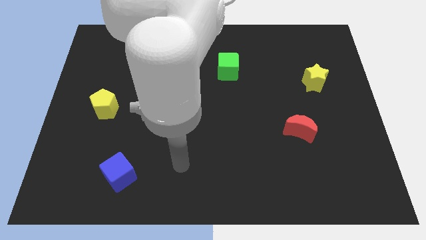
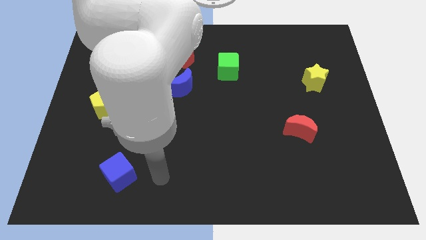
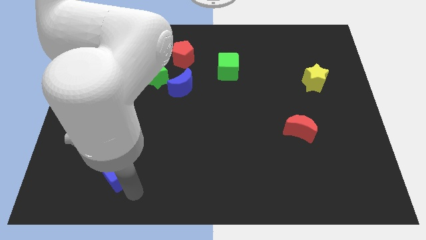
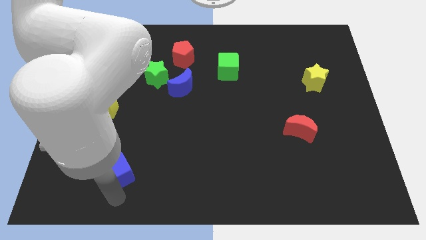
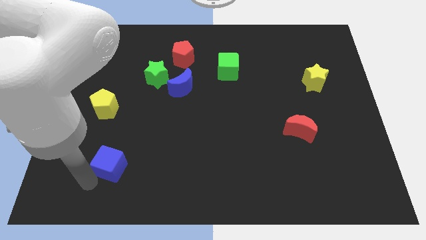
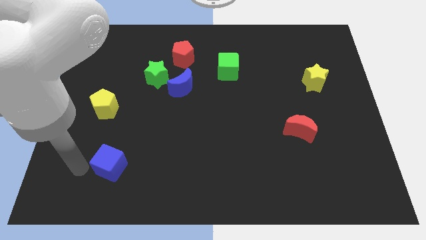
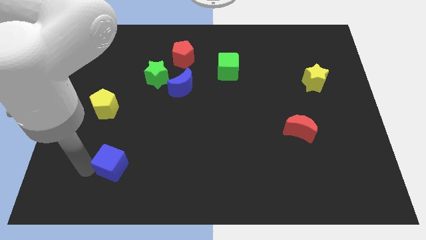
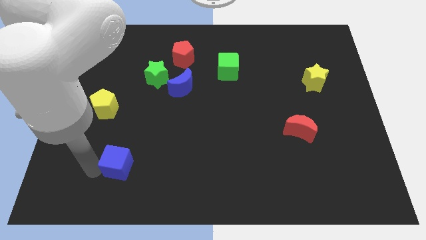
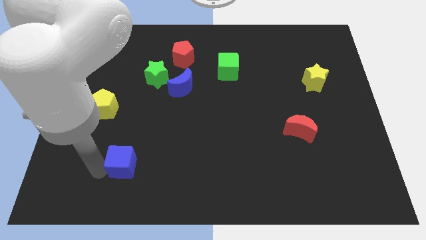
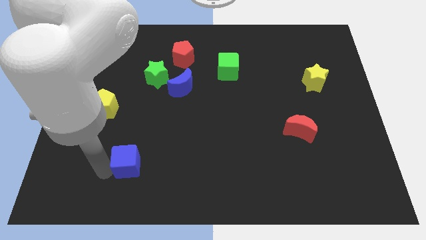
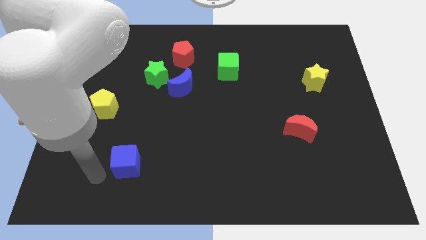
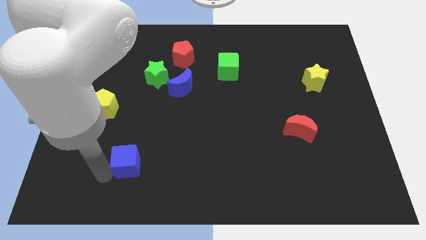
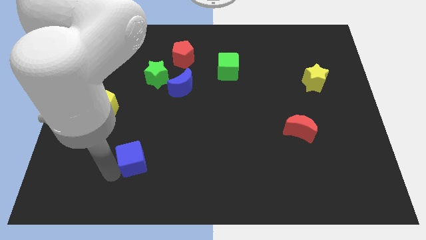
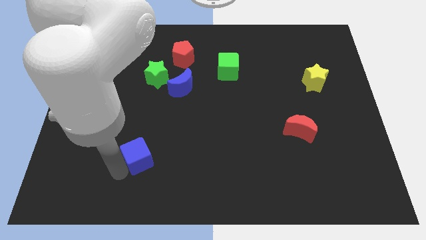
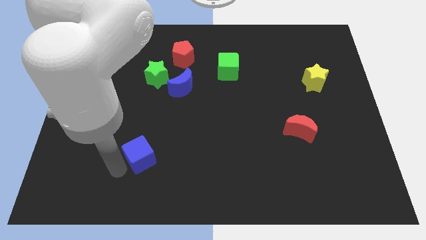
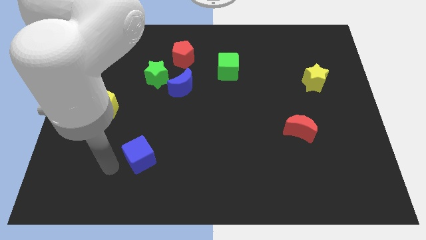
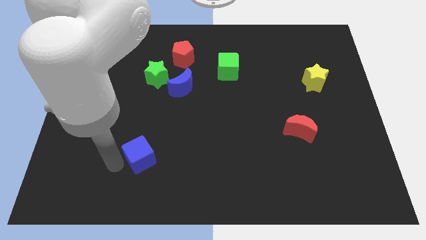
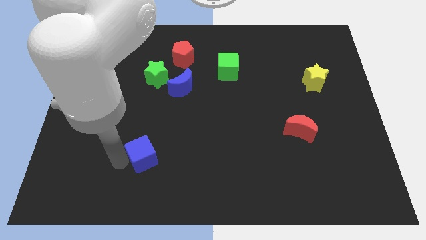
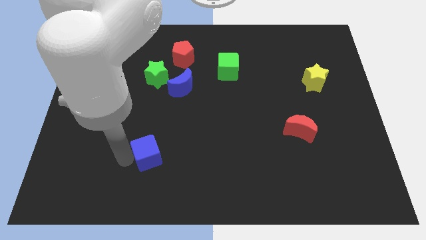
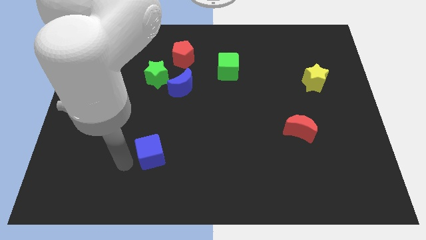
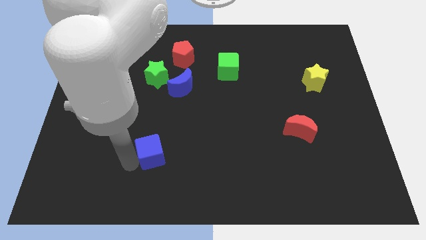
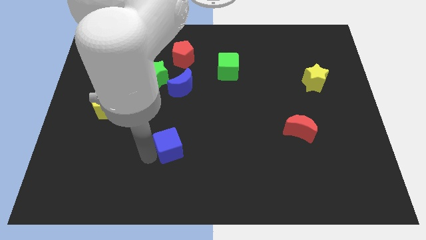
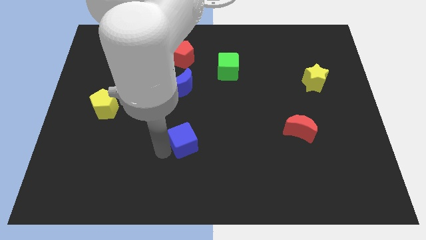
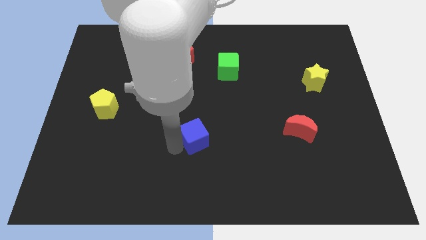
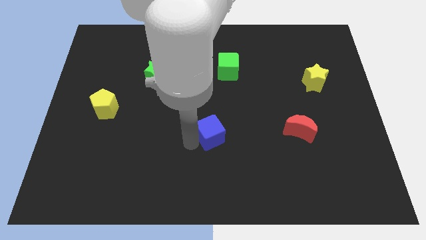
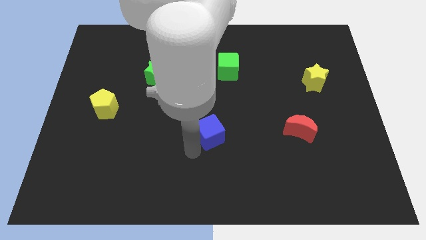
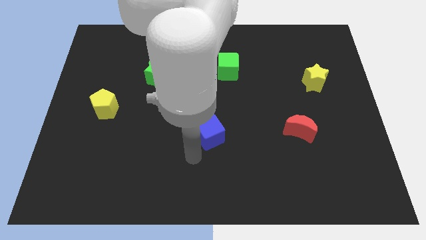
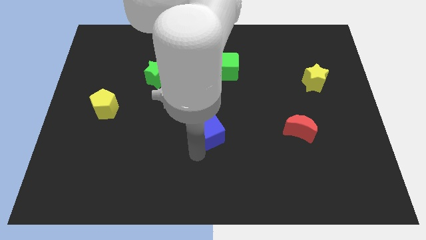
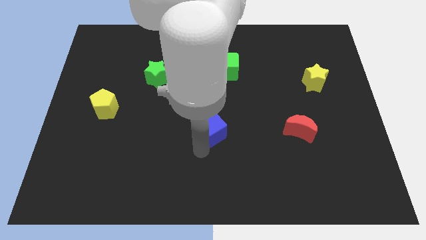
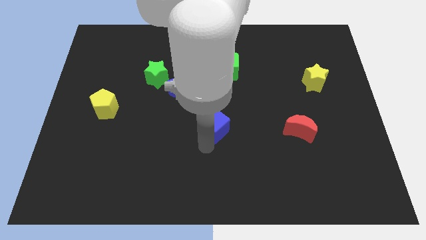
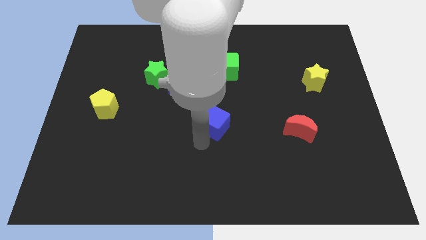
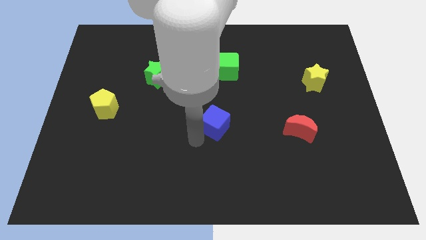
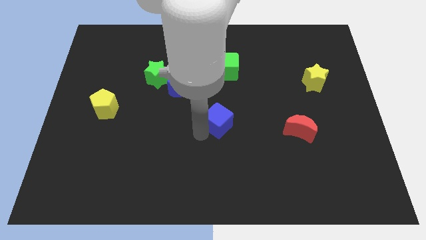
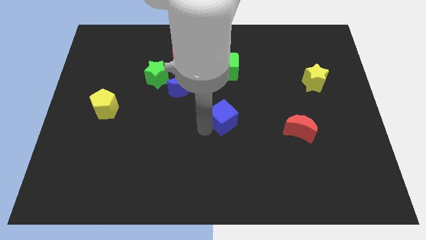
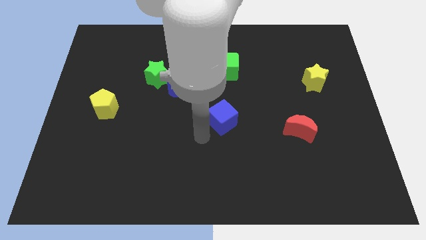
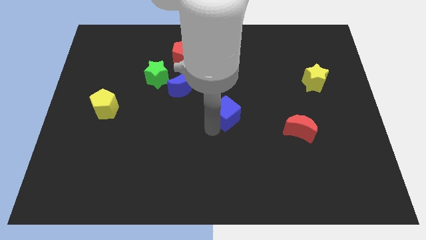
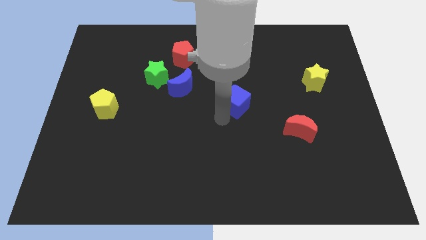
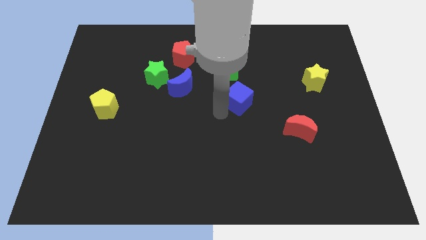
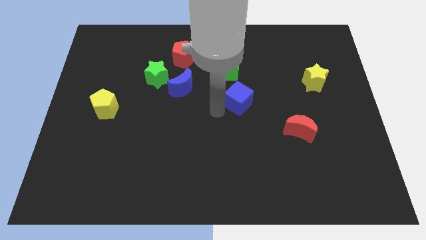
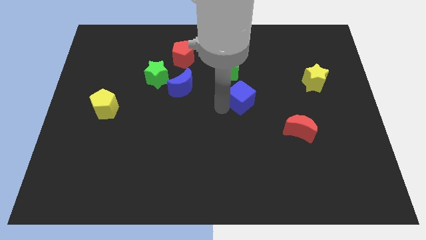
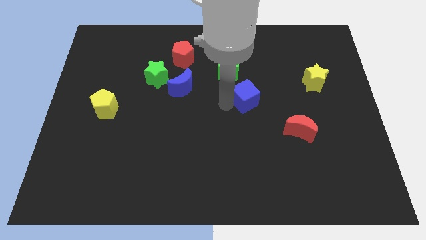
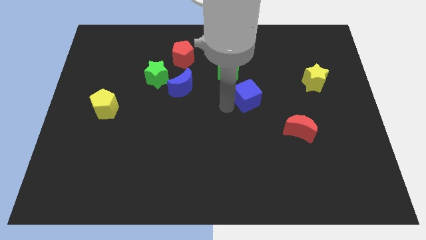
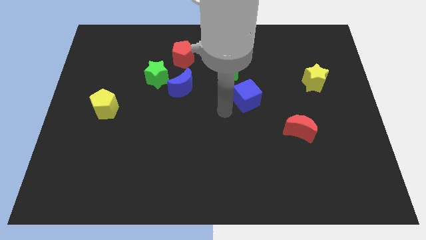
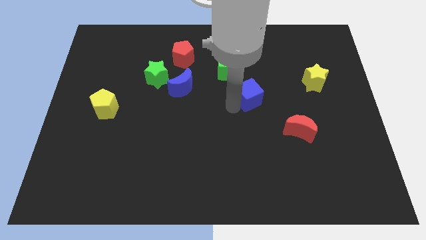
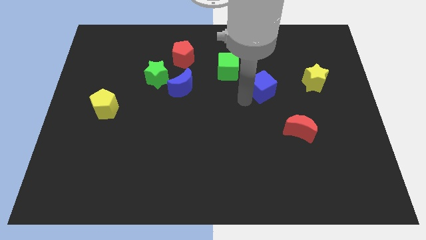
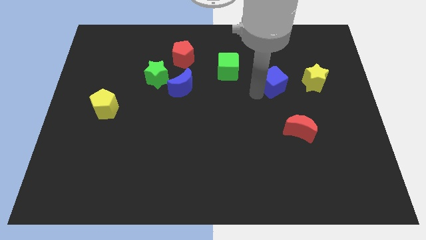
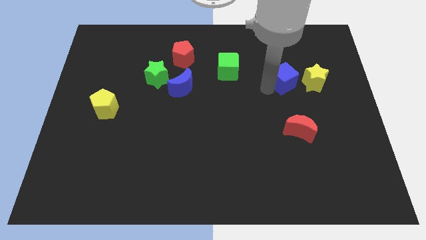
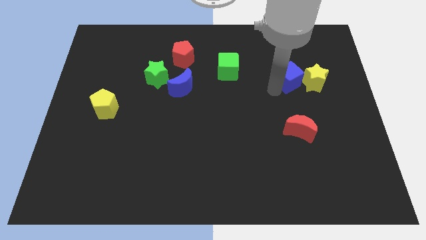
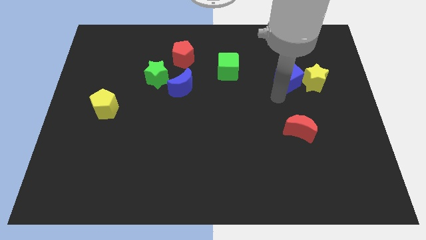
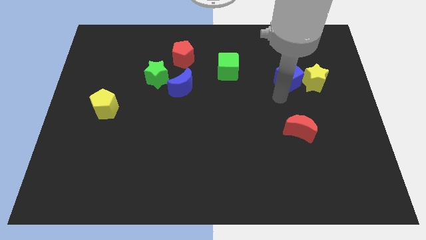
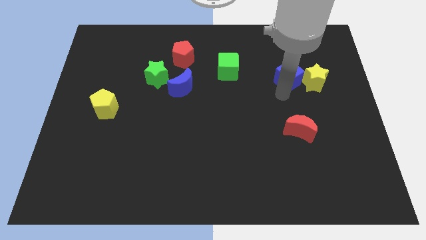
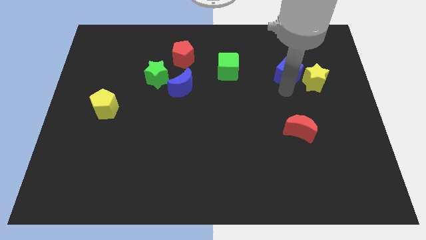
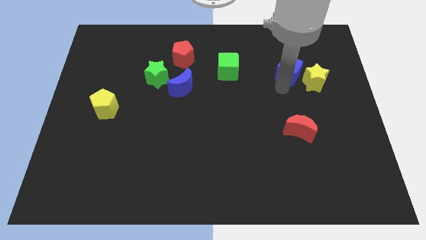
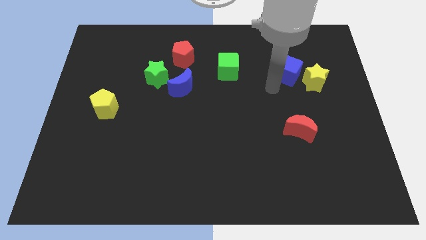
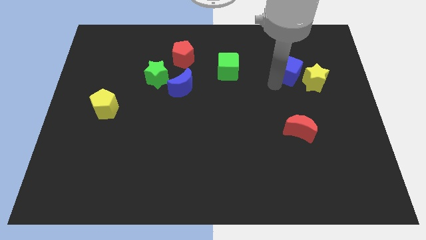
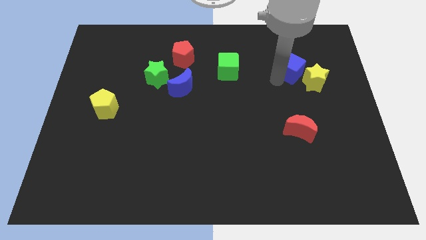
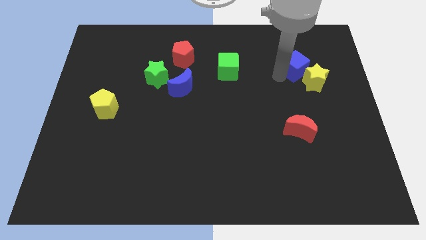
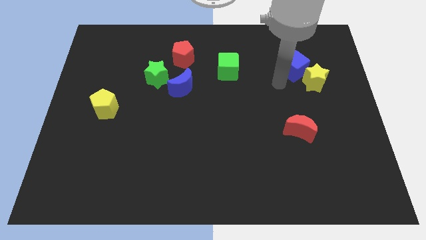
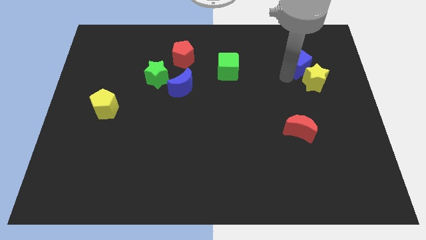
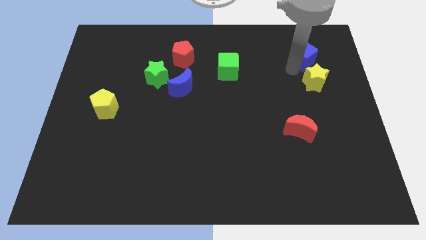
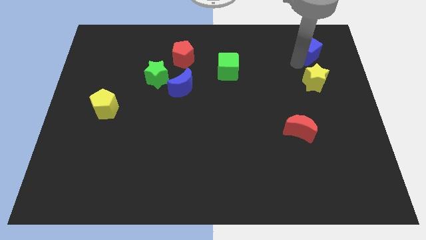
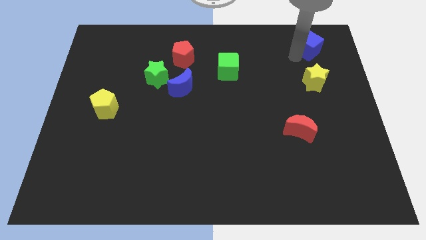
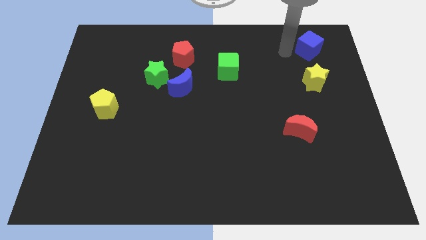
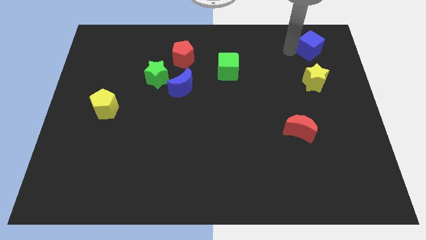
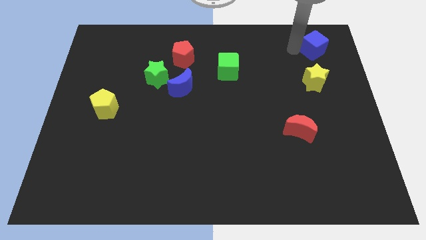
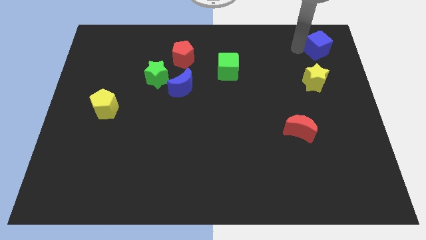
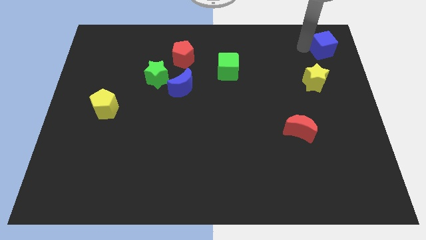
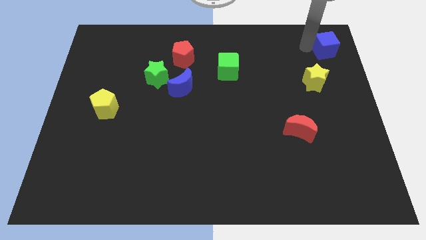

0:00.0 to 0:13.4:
push the blue cube to the top right

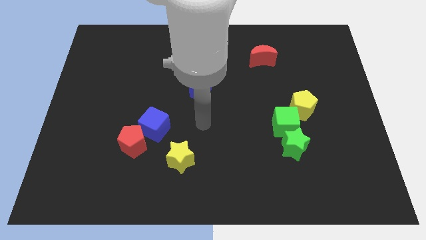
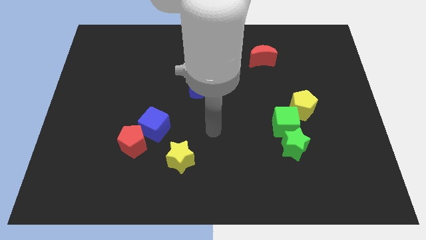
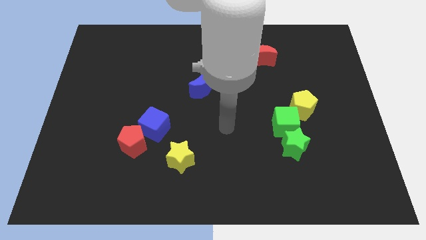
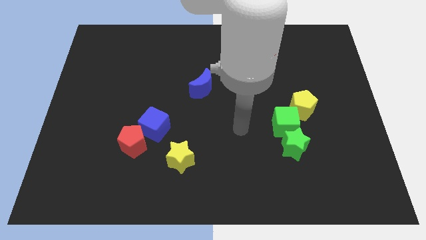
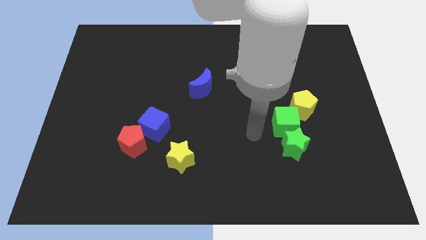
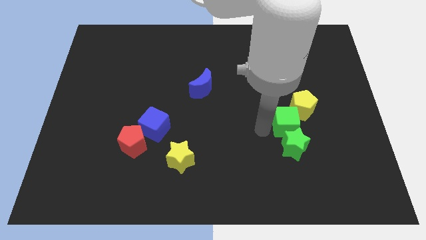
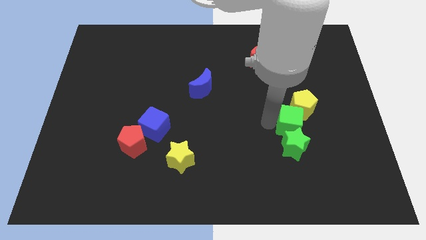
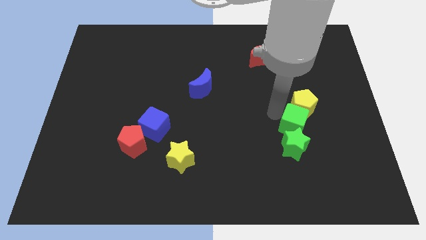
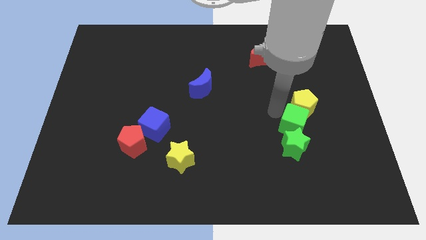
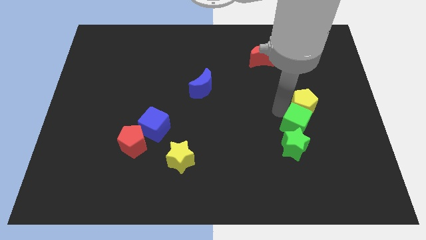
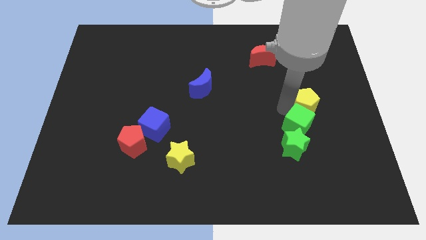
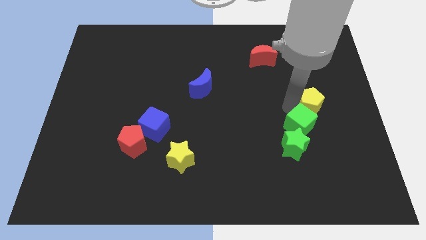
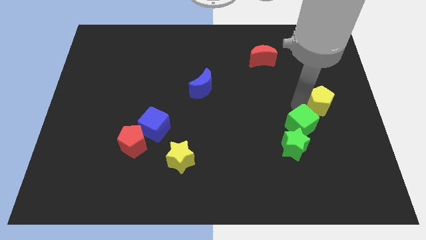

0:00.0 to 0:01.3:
put the yellow pentagon to the right side of the board
